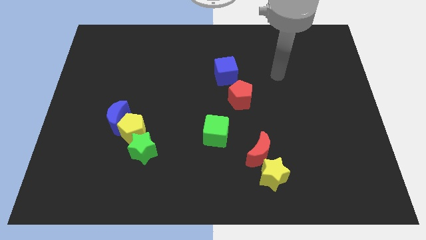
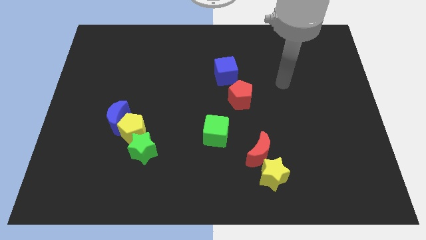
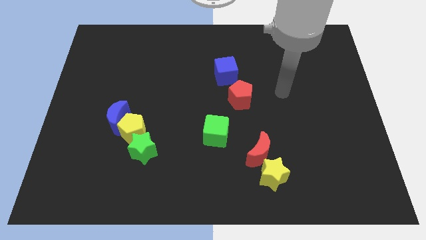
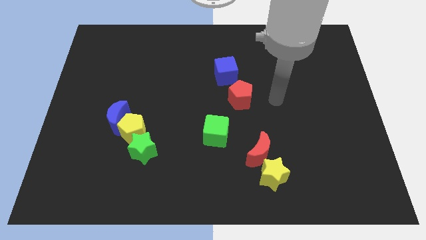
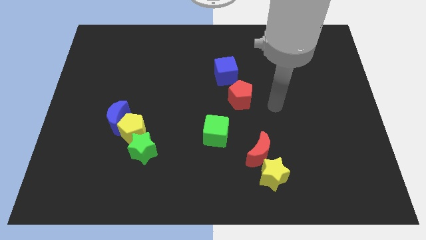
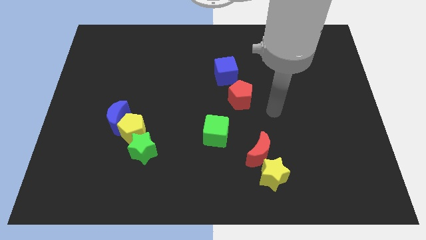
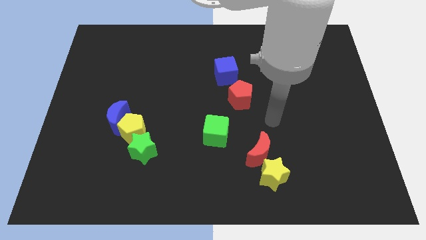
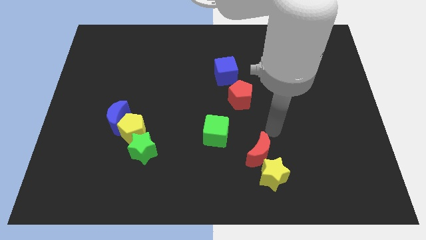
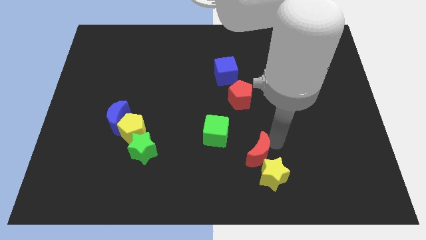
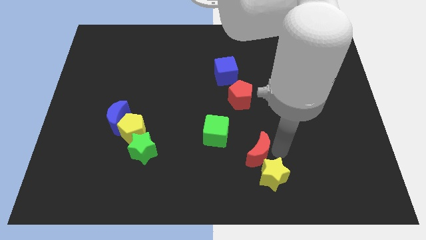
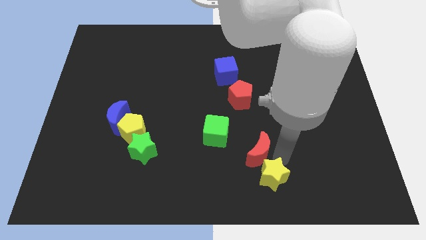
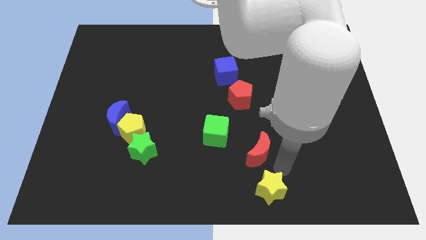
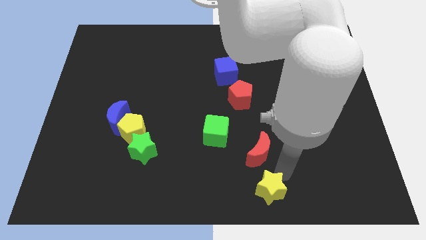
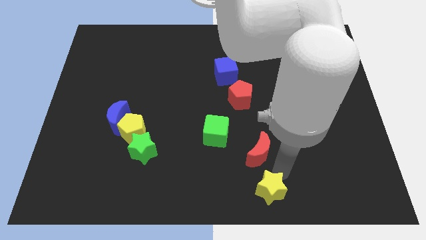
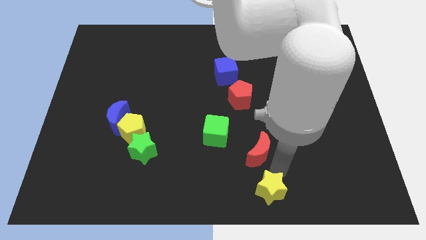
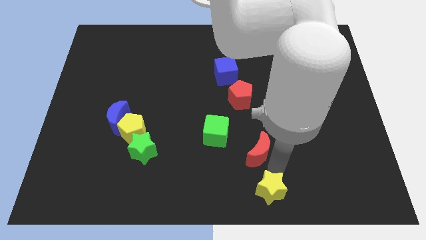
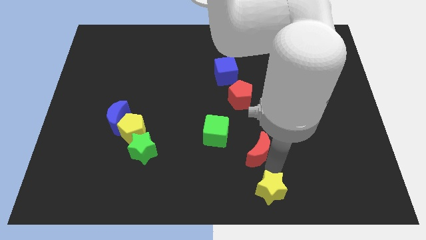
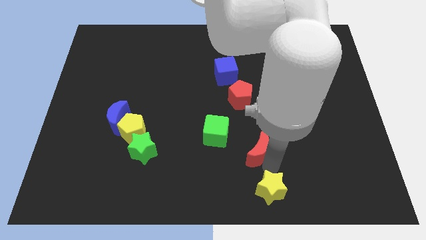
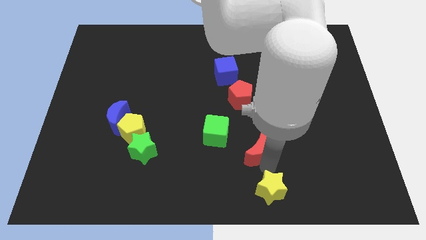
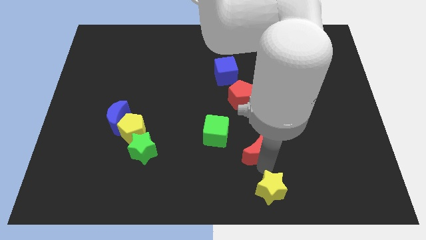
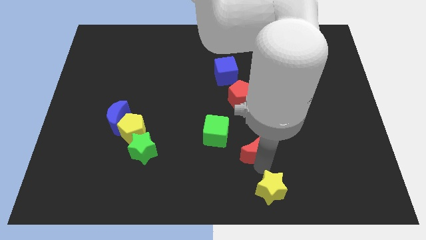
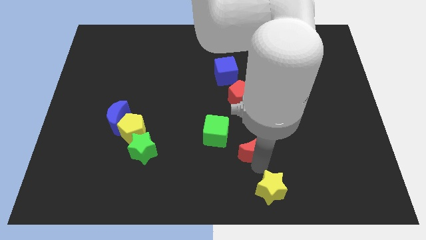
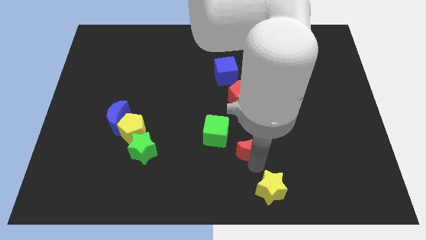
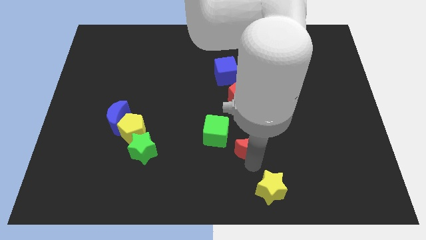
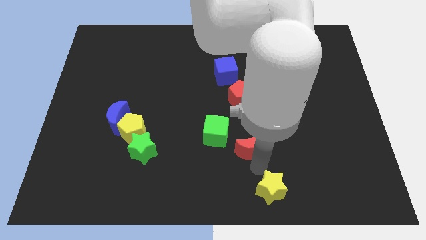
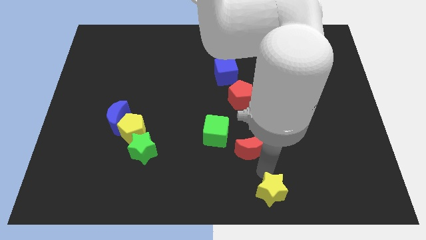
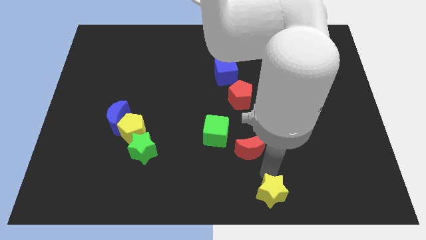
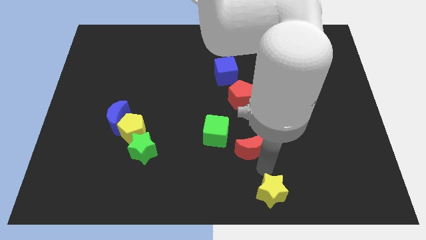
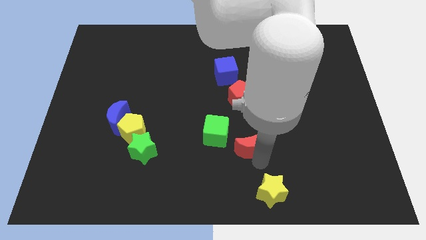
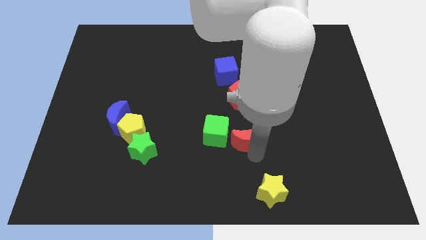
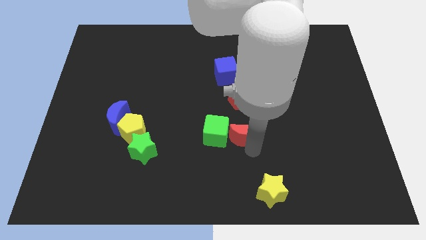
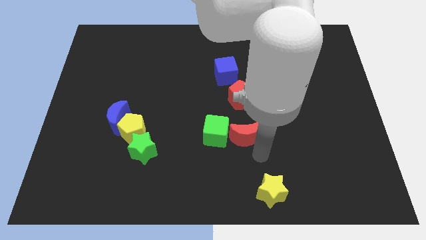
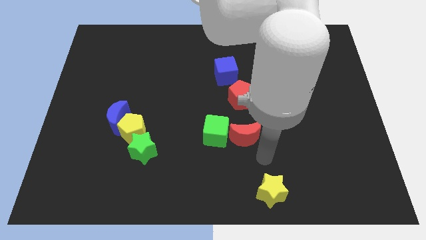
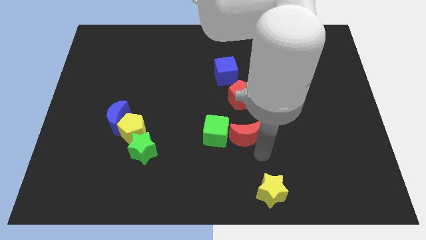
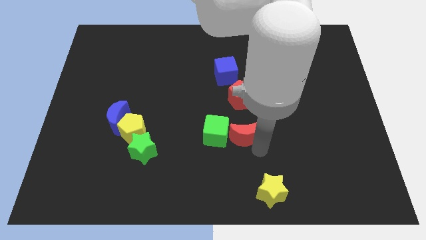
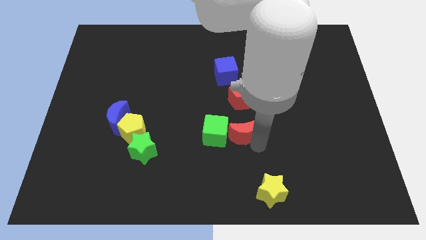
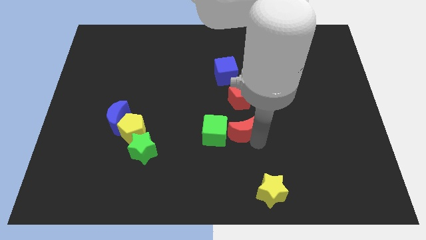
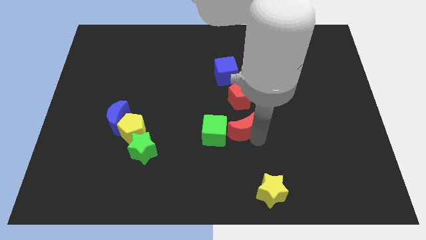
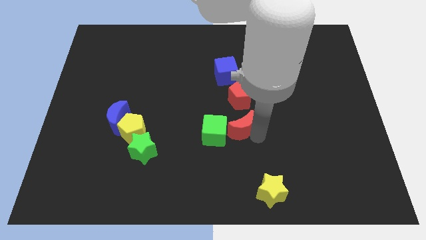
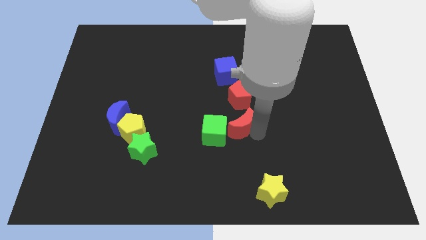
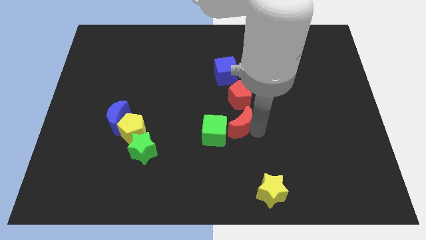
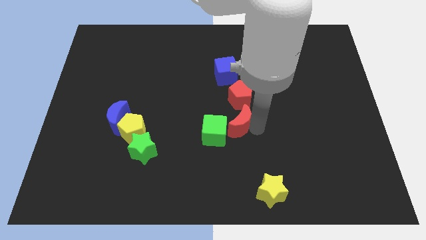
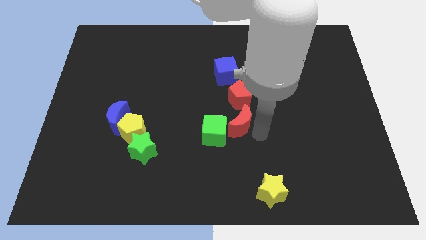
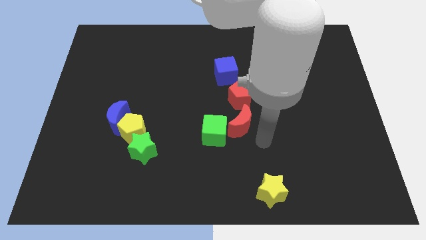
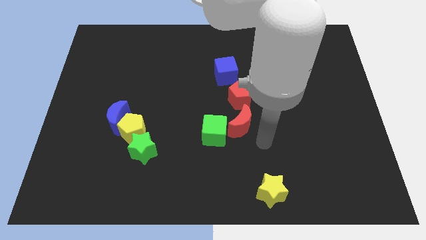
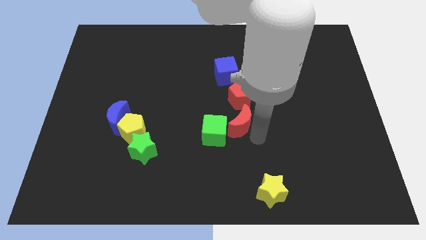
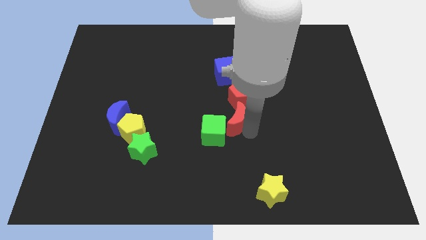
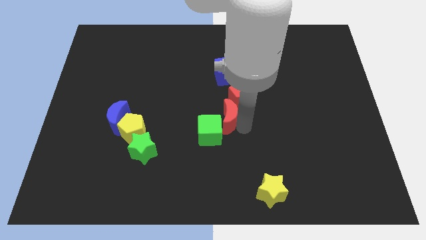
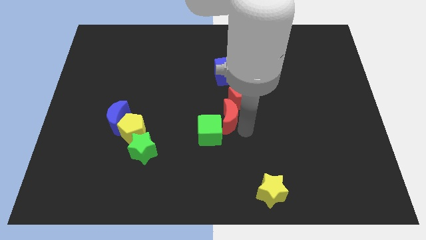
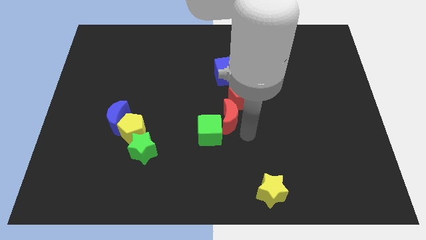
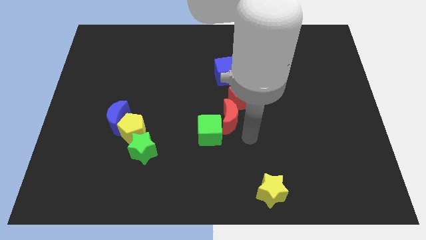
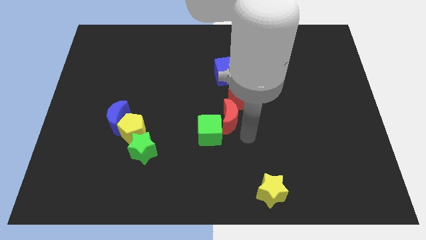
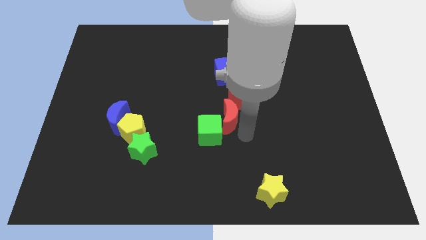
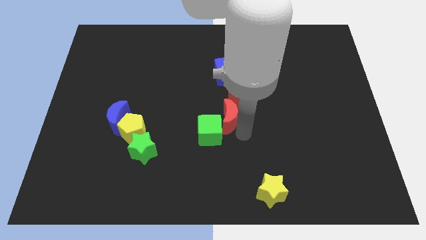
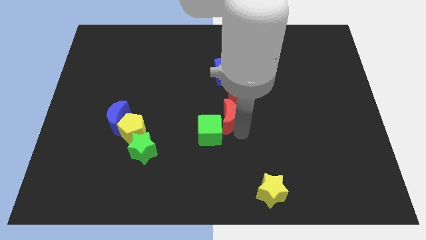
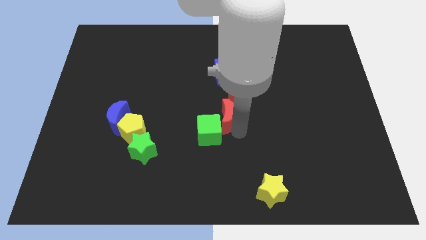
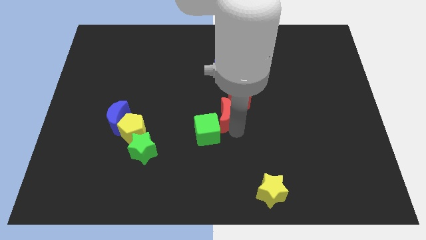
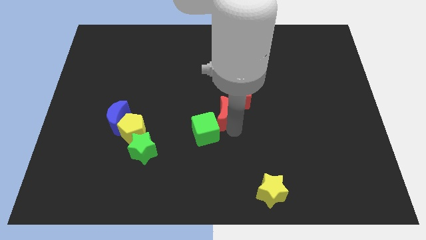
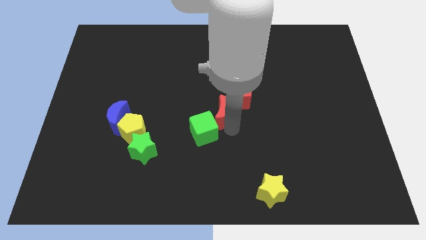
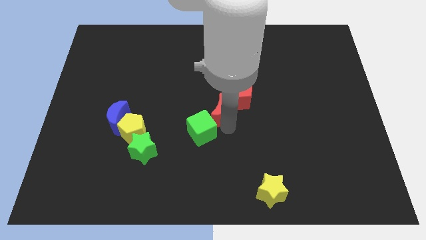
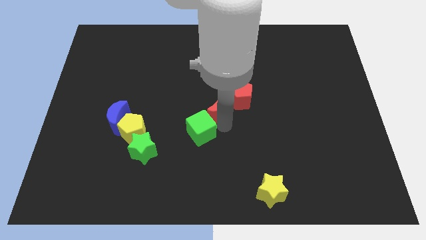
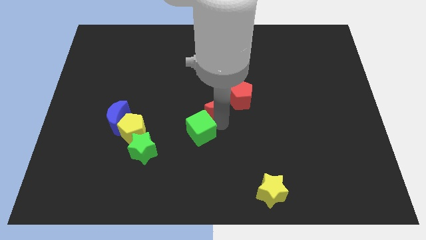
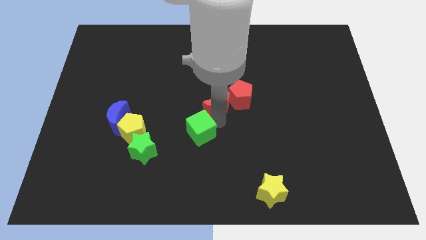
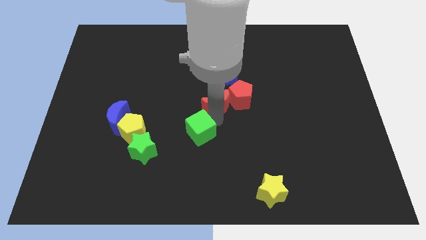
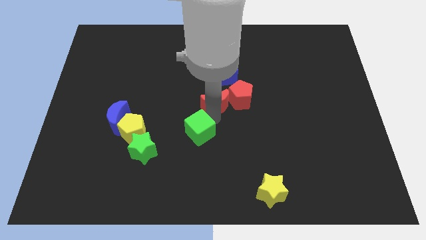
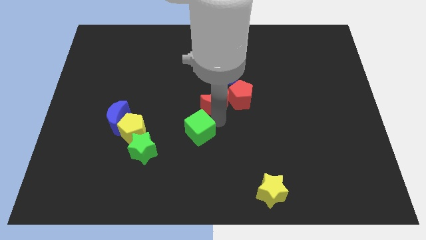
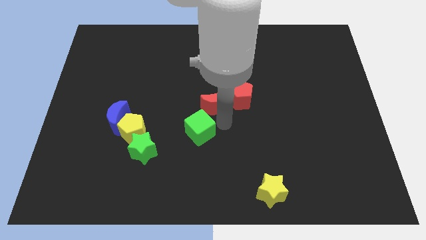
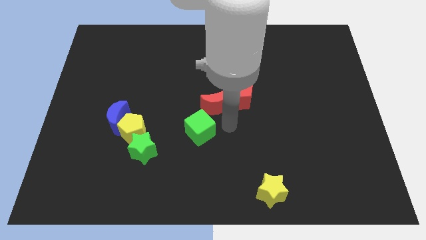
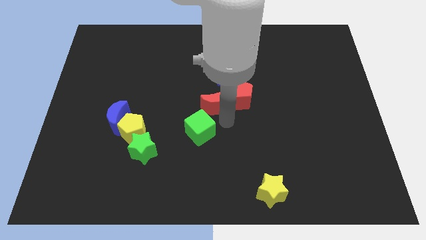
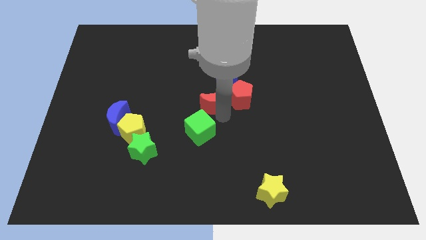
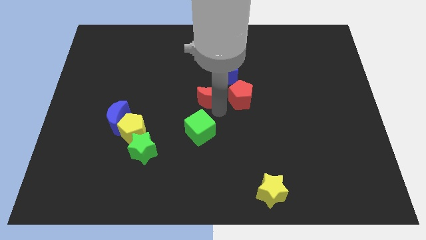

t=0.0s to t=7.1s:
move the red moon to the bottom left of the blue cube
